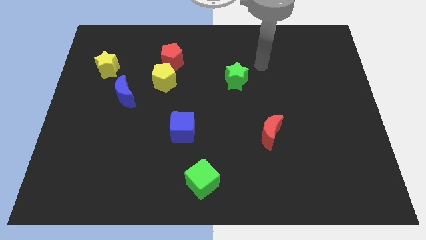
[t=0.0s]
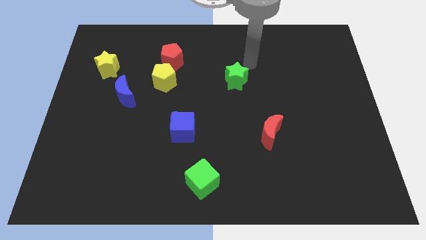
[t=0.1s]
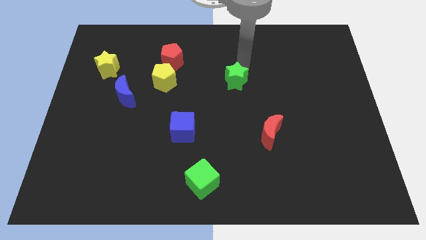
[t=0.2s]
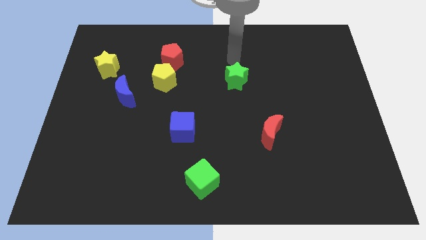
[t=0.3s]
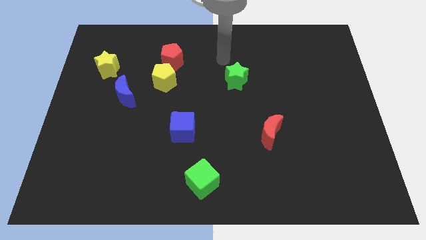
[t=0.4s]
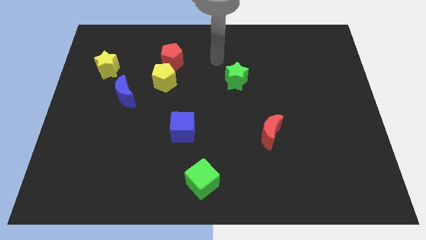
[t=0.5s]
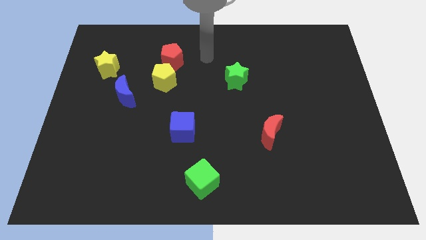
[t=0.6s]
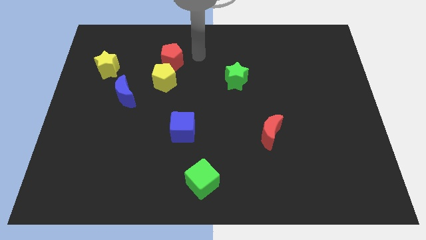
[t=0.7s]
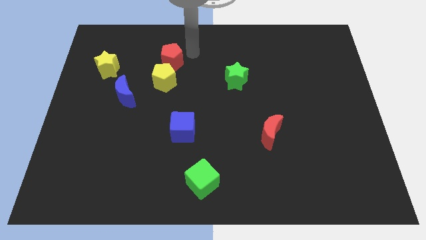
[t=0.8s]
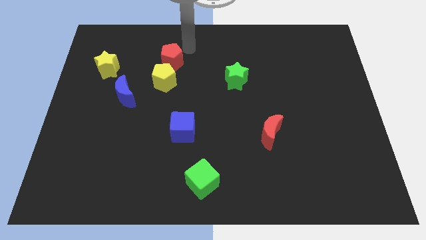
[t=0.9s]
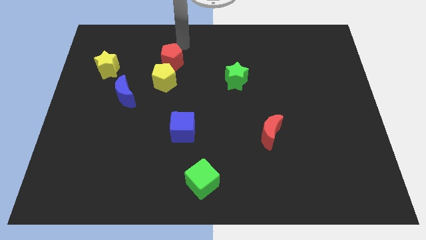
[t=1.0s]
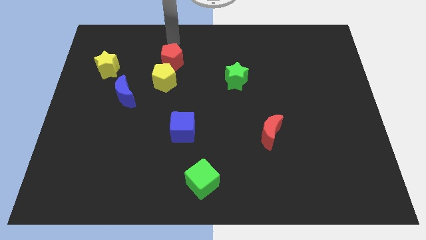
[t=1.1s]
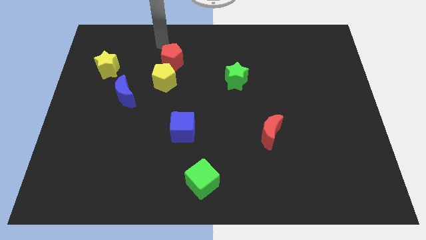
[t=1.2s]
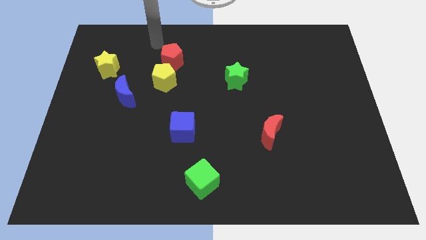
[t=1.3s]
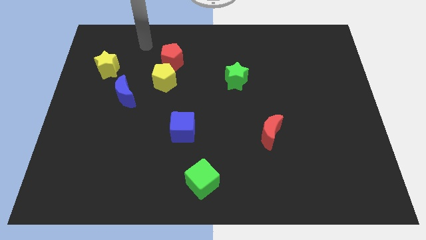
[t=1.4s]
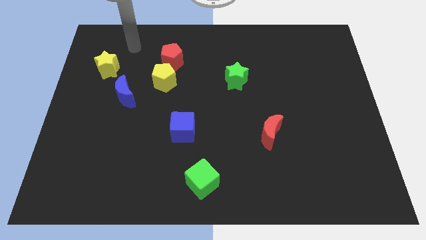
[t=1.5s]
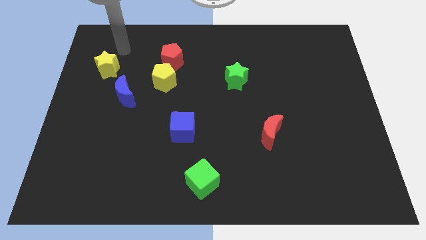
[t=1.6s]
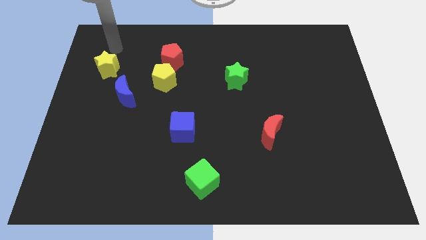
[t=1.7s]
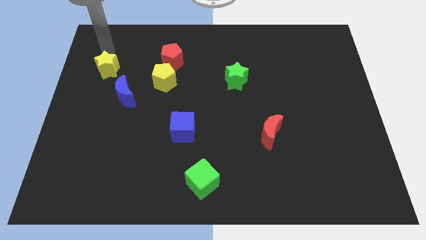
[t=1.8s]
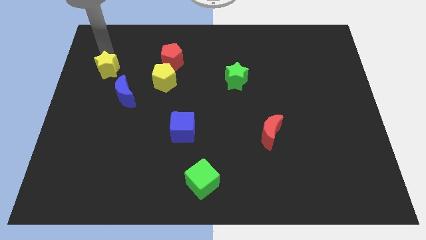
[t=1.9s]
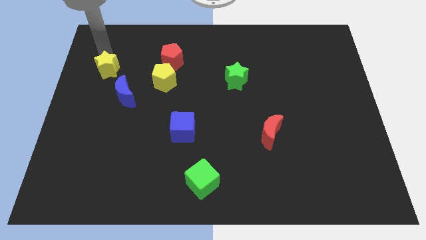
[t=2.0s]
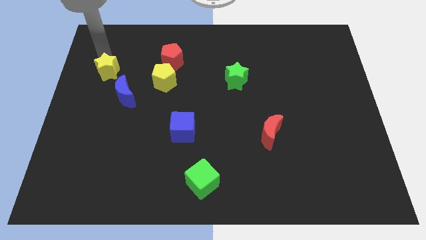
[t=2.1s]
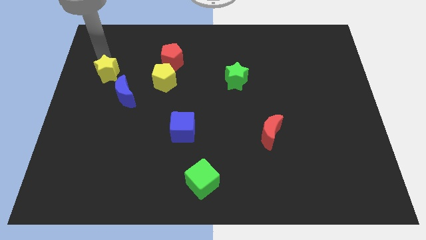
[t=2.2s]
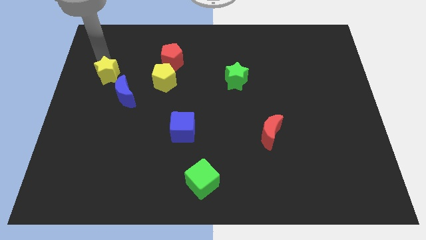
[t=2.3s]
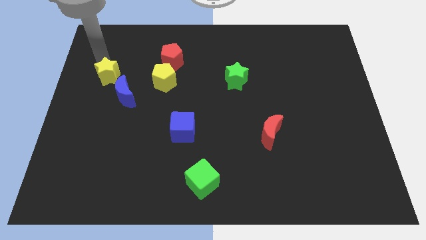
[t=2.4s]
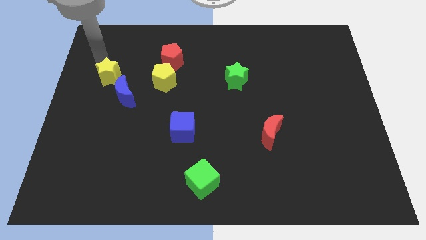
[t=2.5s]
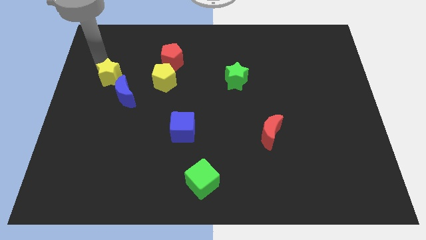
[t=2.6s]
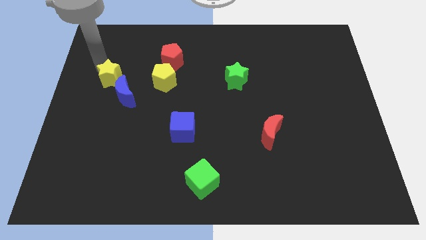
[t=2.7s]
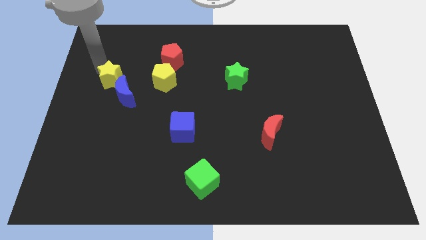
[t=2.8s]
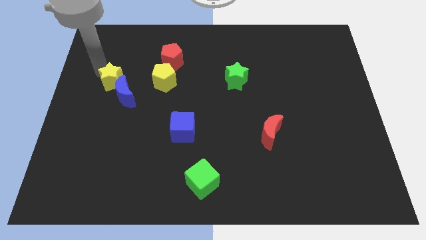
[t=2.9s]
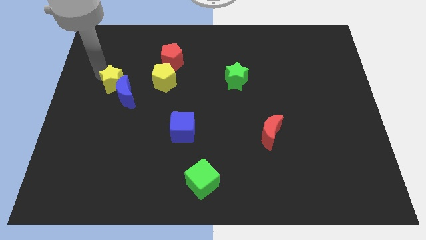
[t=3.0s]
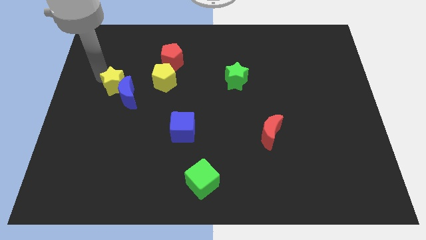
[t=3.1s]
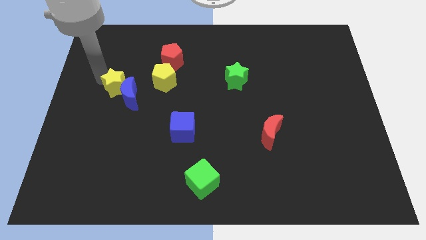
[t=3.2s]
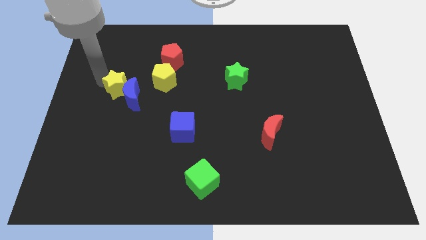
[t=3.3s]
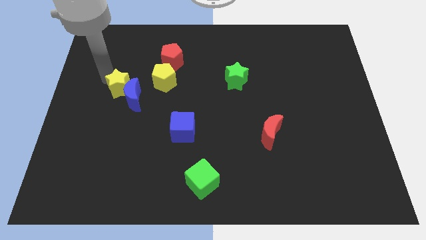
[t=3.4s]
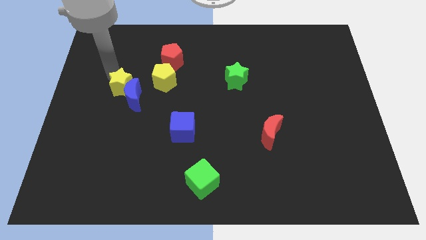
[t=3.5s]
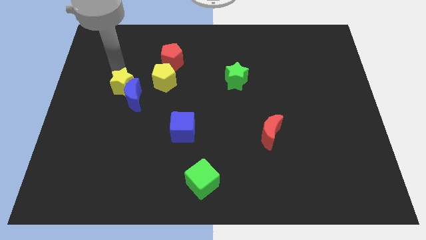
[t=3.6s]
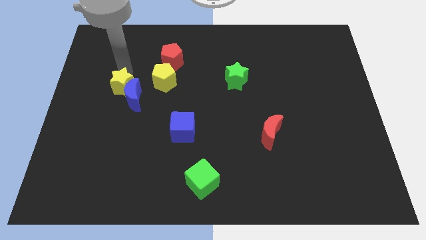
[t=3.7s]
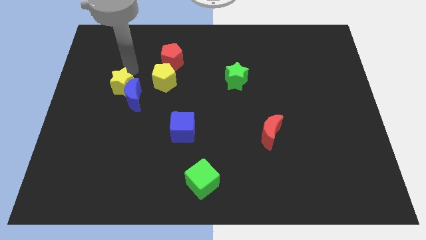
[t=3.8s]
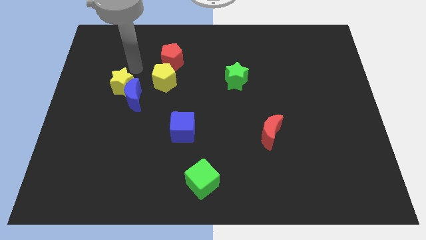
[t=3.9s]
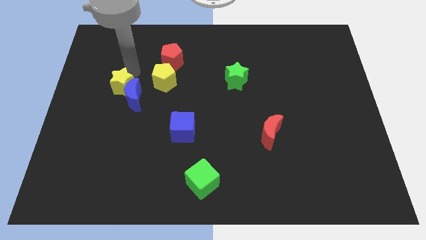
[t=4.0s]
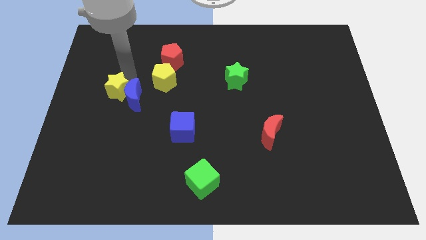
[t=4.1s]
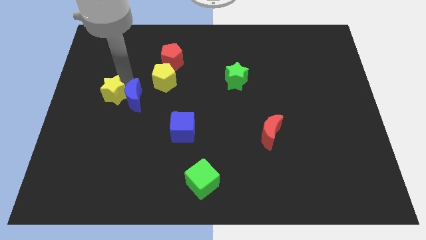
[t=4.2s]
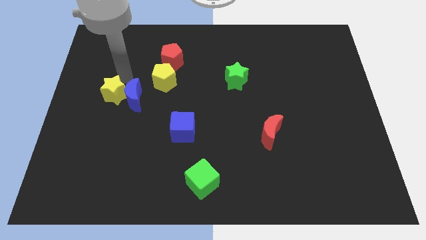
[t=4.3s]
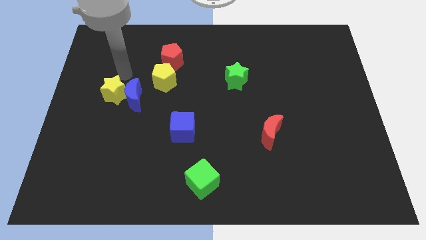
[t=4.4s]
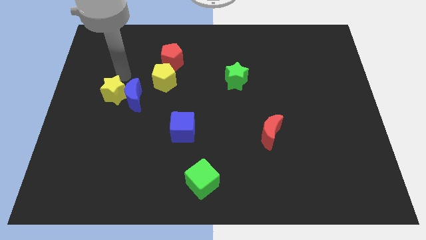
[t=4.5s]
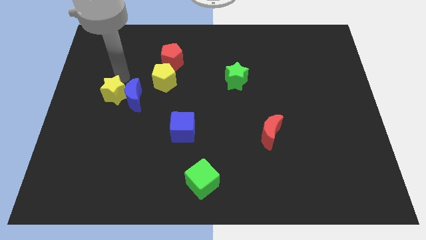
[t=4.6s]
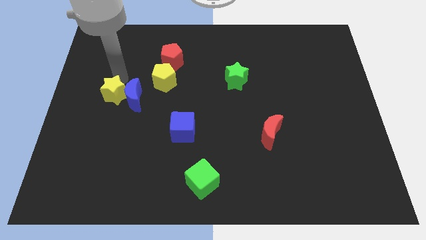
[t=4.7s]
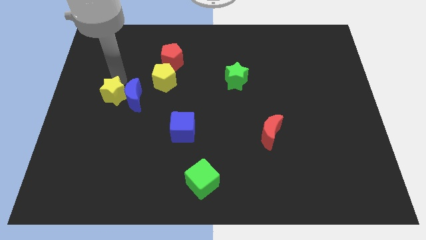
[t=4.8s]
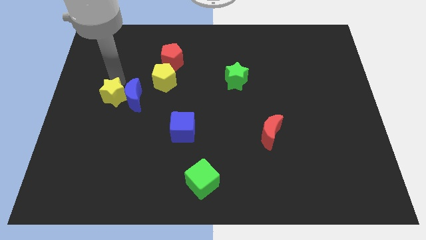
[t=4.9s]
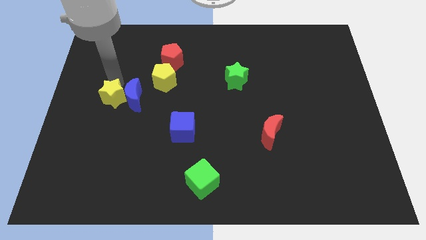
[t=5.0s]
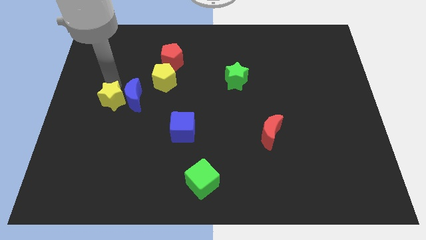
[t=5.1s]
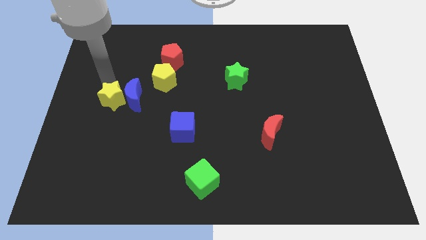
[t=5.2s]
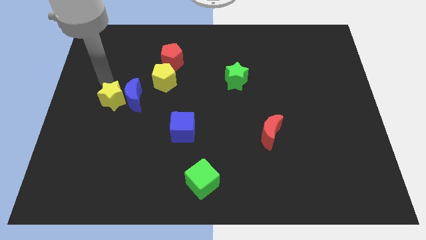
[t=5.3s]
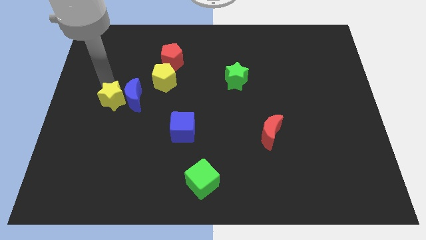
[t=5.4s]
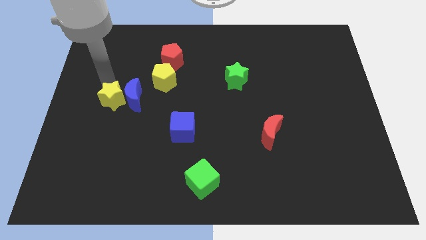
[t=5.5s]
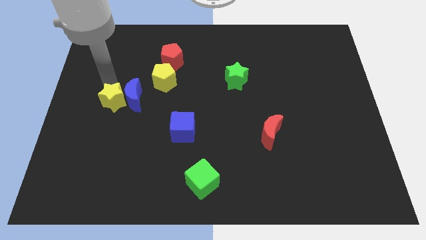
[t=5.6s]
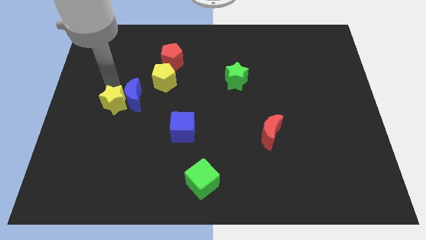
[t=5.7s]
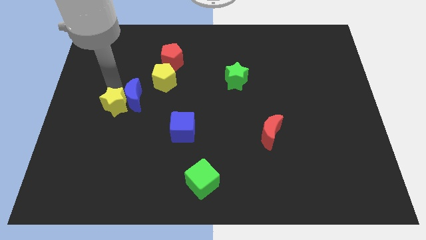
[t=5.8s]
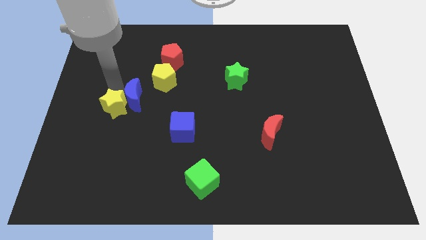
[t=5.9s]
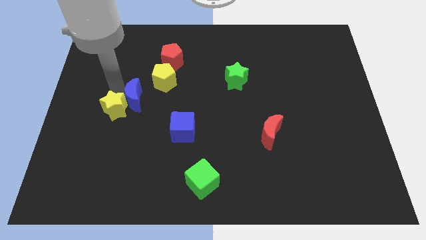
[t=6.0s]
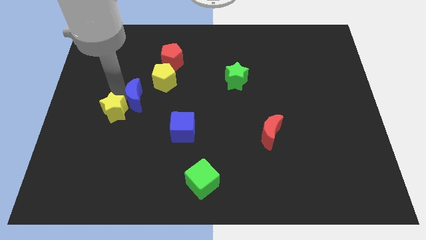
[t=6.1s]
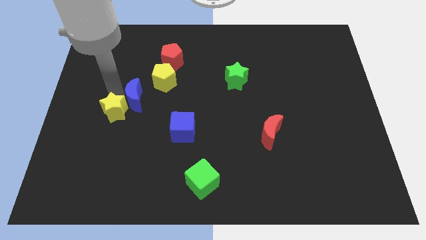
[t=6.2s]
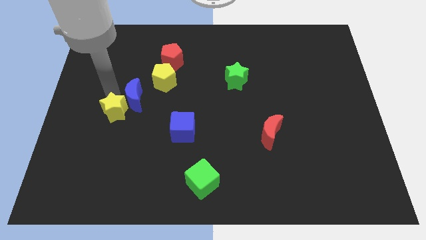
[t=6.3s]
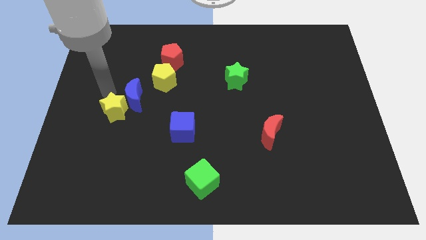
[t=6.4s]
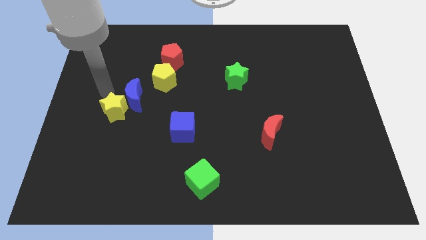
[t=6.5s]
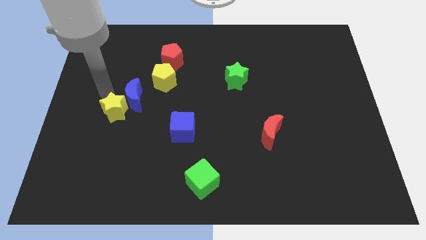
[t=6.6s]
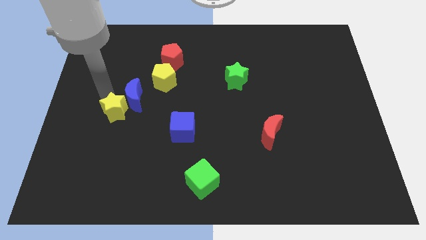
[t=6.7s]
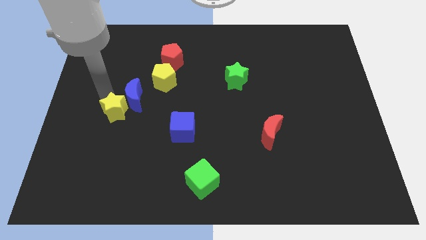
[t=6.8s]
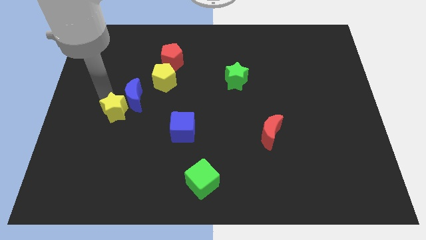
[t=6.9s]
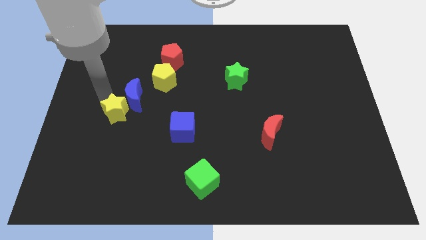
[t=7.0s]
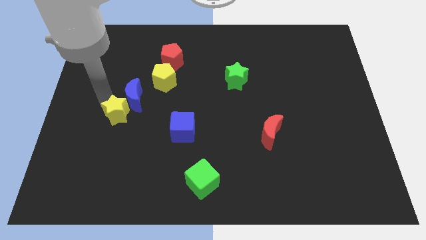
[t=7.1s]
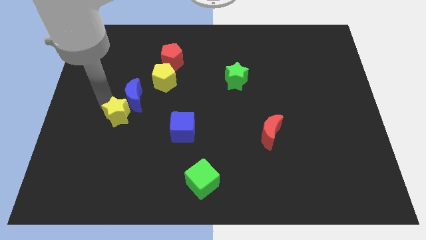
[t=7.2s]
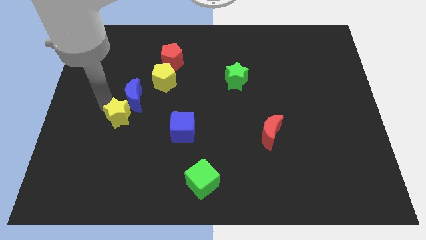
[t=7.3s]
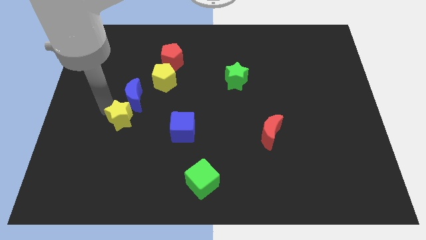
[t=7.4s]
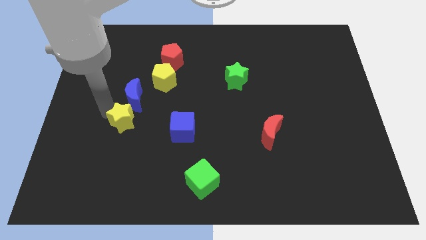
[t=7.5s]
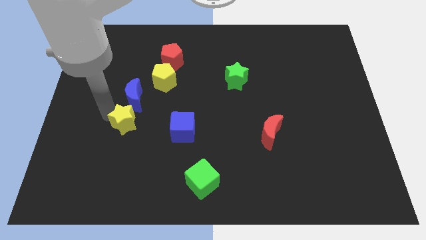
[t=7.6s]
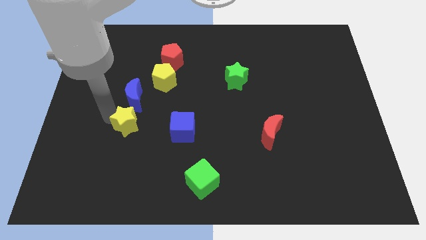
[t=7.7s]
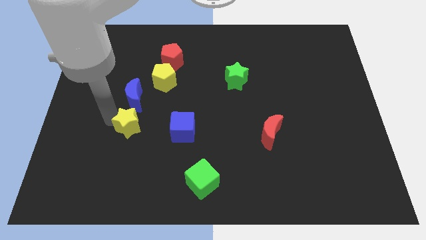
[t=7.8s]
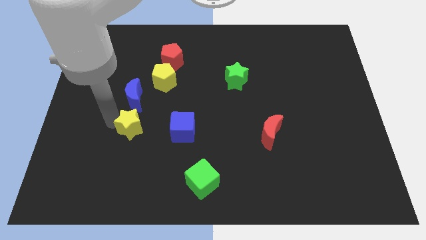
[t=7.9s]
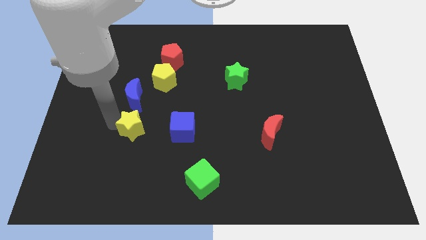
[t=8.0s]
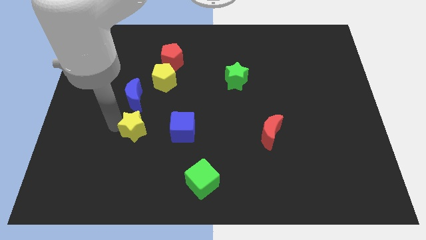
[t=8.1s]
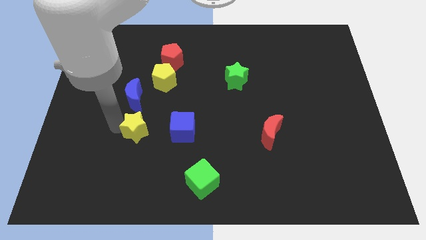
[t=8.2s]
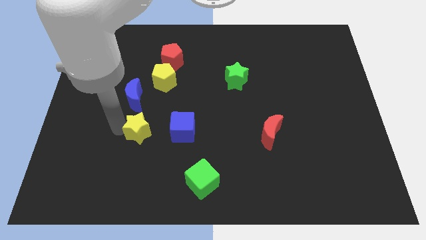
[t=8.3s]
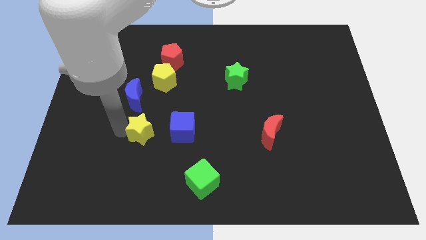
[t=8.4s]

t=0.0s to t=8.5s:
push the yellow star downwards and to the right
